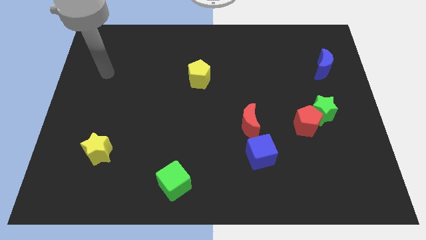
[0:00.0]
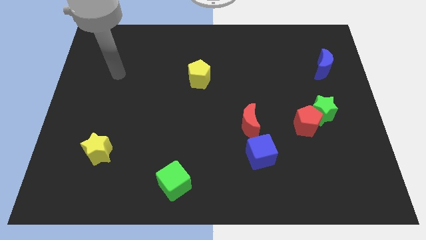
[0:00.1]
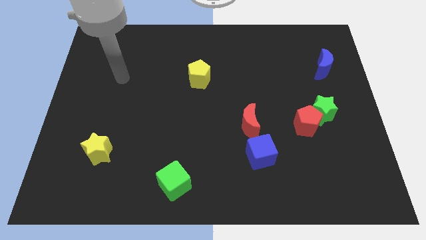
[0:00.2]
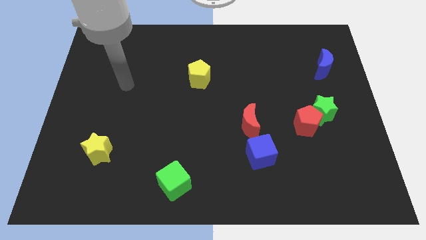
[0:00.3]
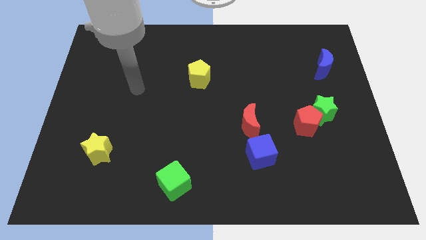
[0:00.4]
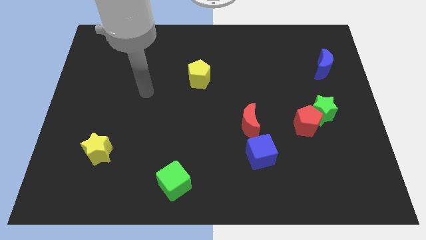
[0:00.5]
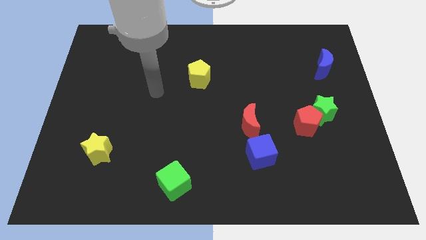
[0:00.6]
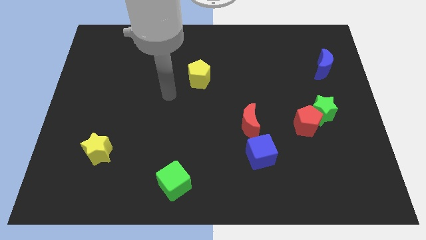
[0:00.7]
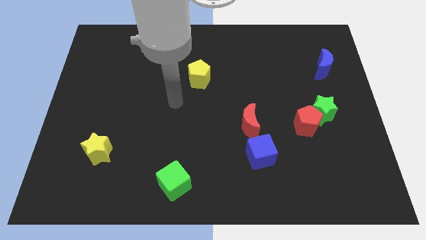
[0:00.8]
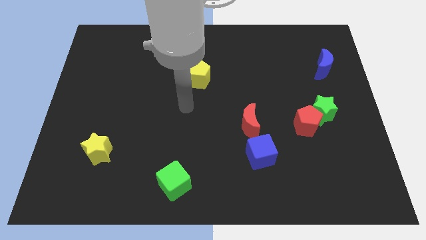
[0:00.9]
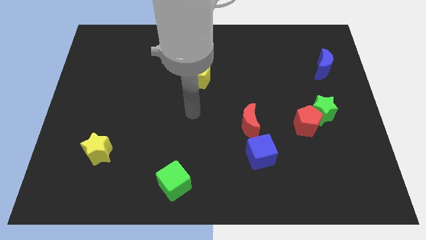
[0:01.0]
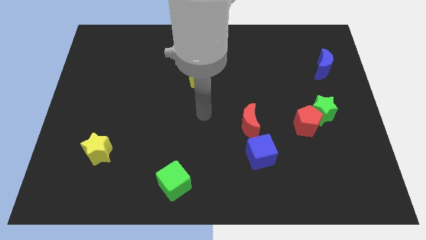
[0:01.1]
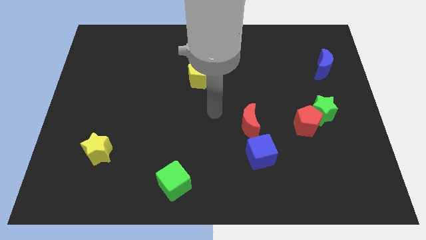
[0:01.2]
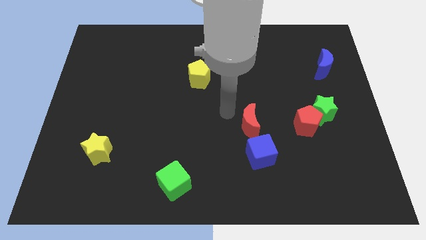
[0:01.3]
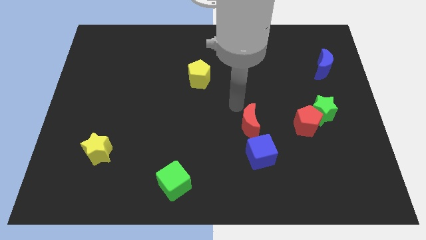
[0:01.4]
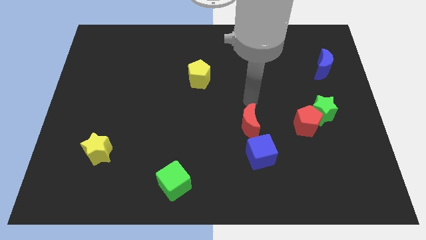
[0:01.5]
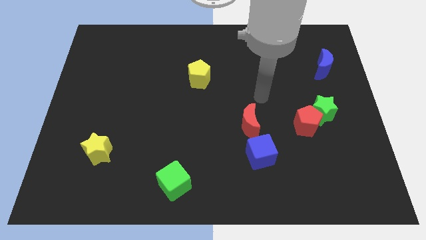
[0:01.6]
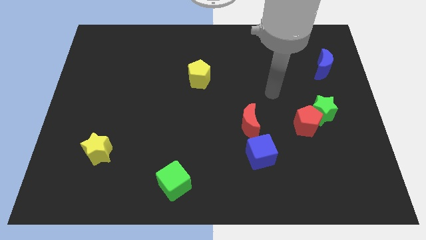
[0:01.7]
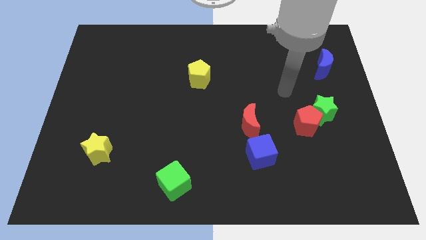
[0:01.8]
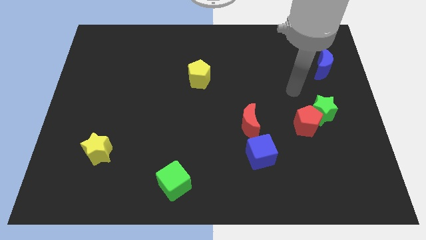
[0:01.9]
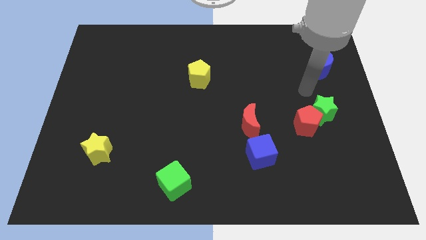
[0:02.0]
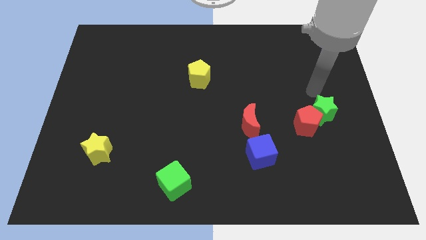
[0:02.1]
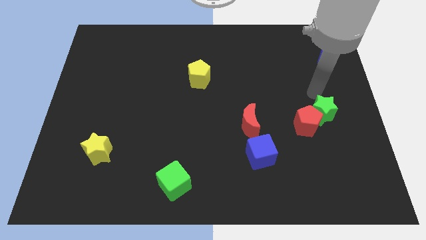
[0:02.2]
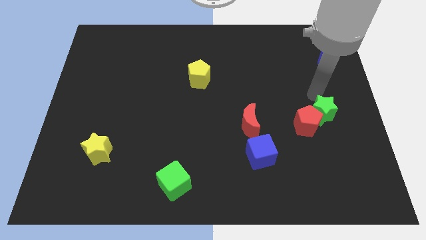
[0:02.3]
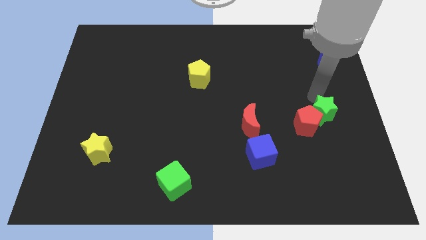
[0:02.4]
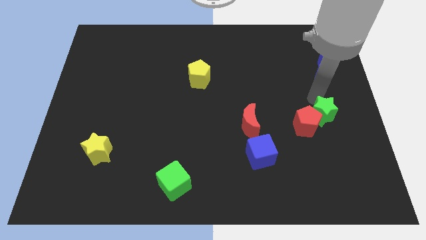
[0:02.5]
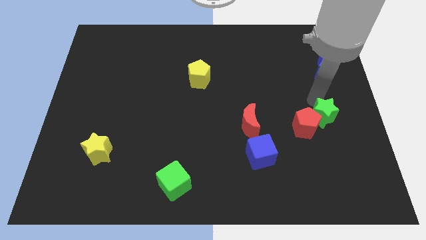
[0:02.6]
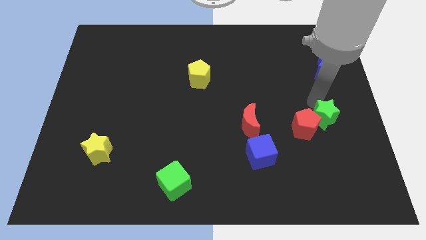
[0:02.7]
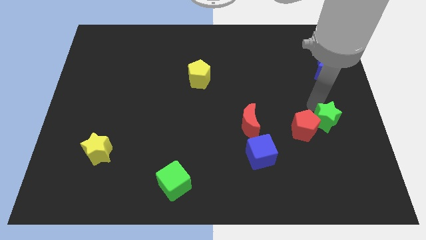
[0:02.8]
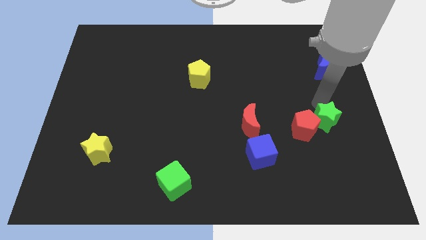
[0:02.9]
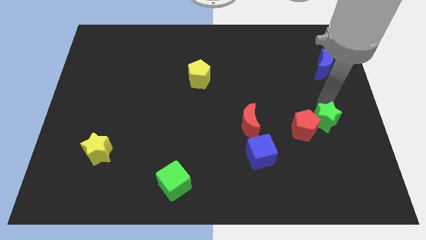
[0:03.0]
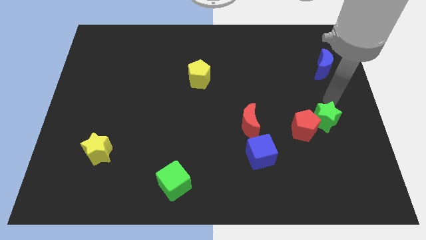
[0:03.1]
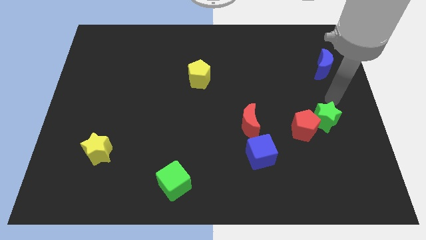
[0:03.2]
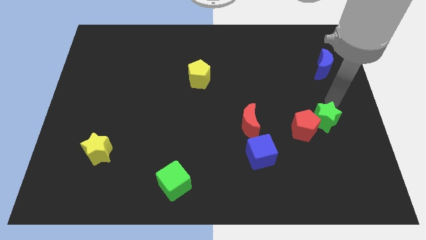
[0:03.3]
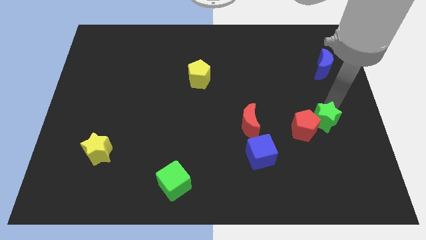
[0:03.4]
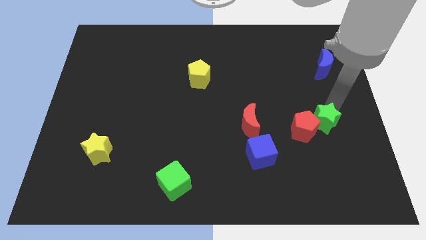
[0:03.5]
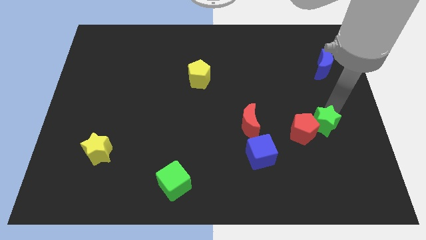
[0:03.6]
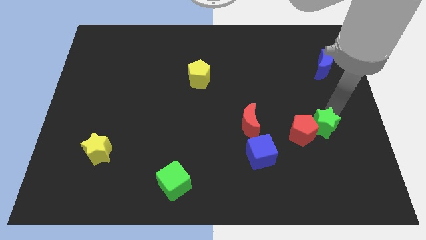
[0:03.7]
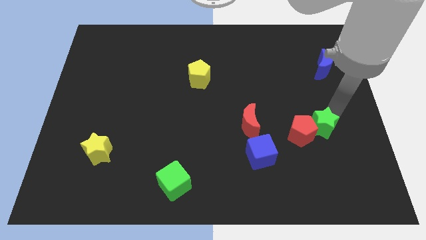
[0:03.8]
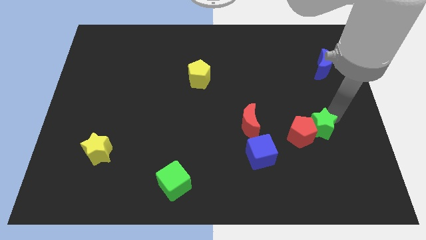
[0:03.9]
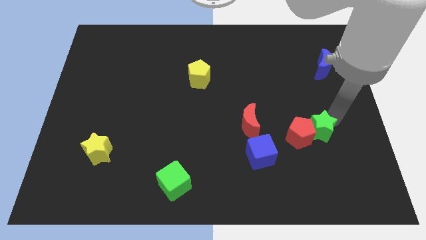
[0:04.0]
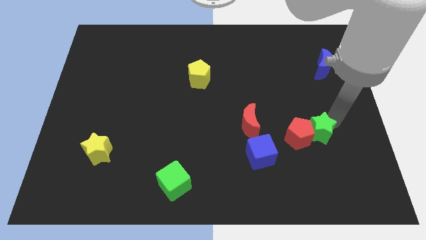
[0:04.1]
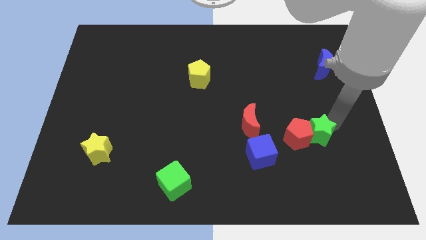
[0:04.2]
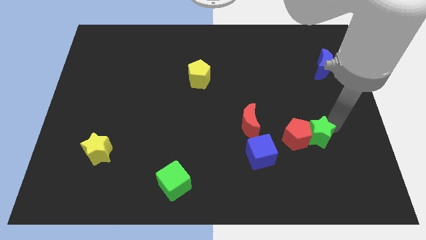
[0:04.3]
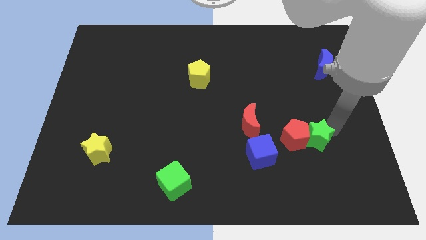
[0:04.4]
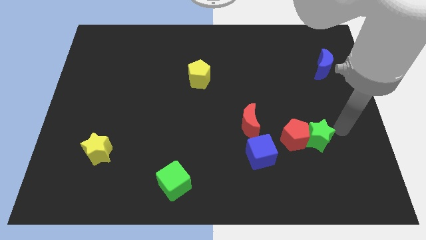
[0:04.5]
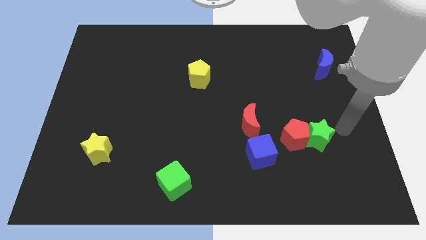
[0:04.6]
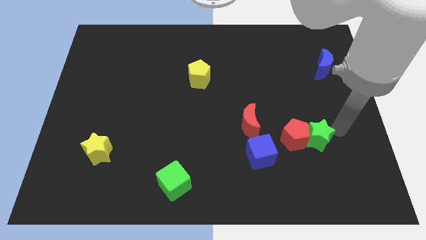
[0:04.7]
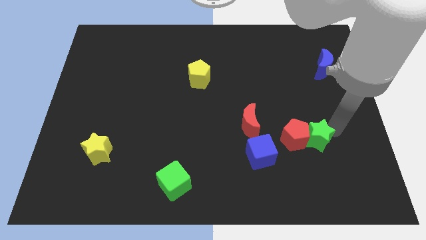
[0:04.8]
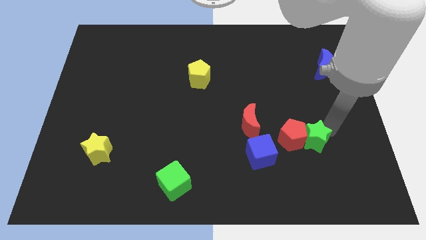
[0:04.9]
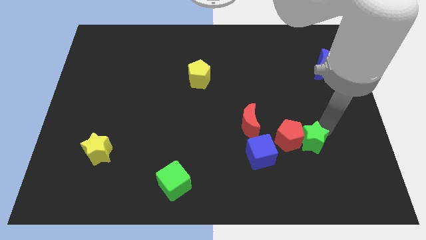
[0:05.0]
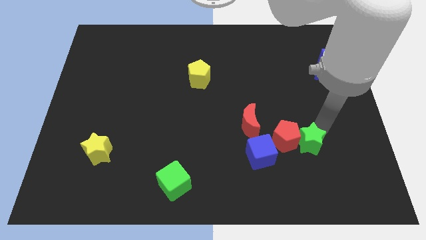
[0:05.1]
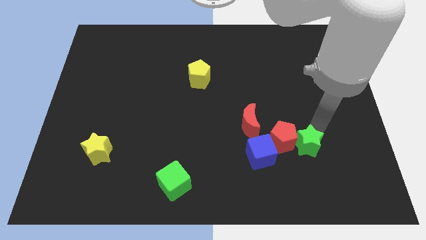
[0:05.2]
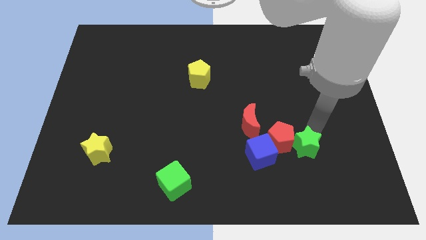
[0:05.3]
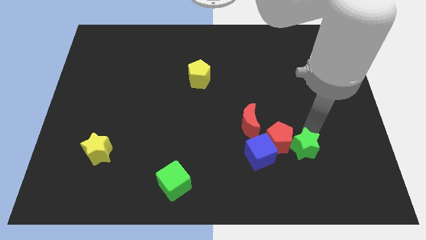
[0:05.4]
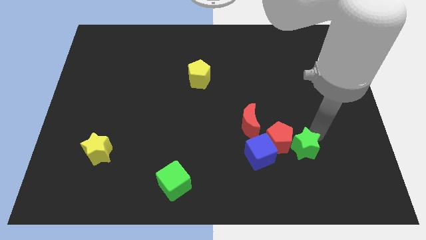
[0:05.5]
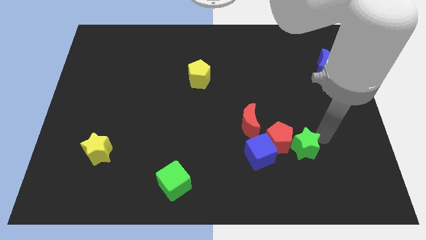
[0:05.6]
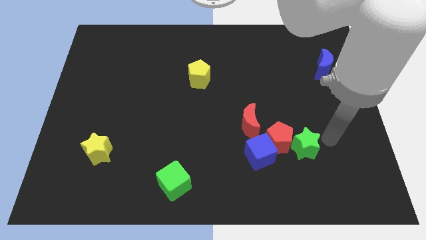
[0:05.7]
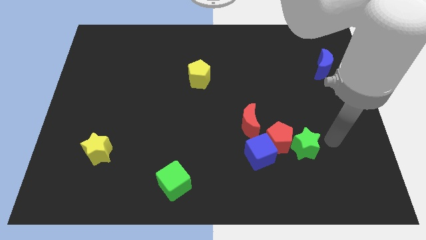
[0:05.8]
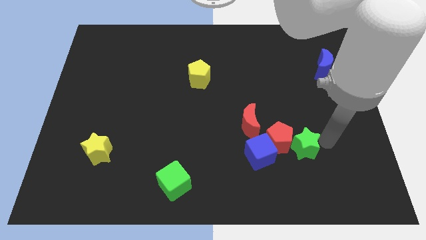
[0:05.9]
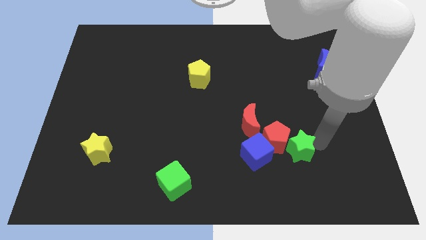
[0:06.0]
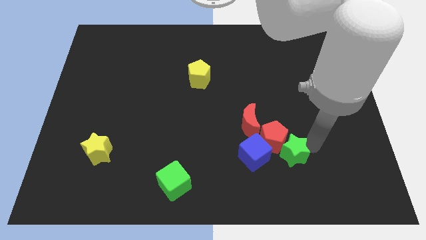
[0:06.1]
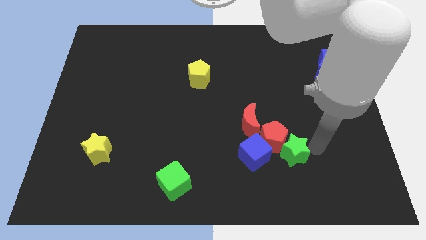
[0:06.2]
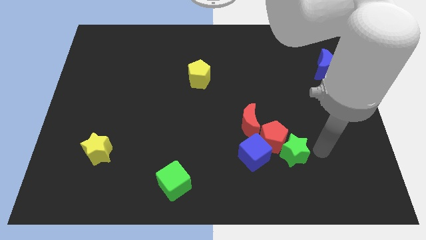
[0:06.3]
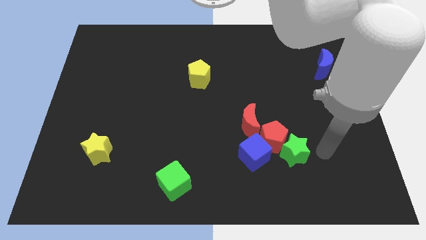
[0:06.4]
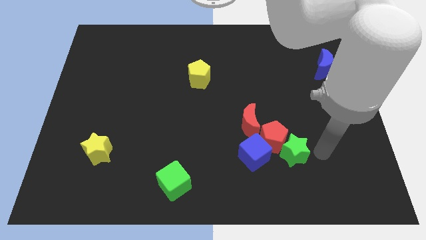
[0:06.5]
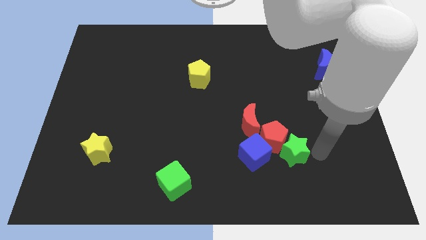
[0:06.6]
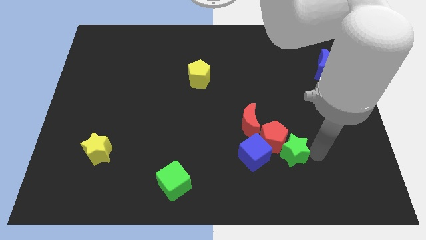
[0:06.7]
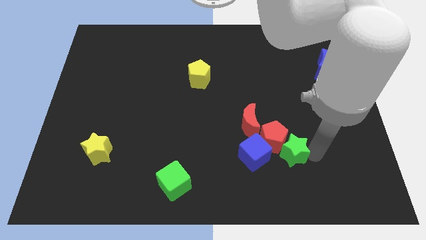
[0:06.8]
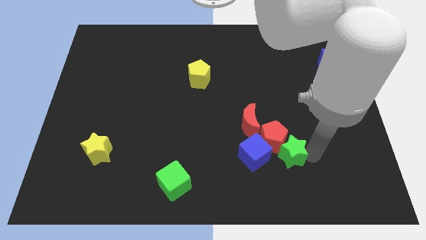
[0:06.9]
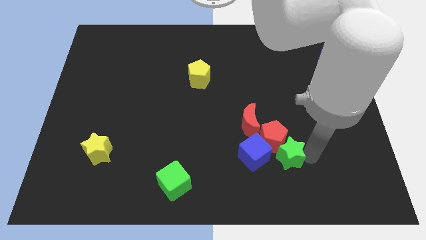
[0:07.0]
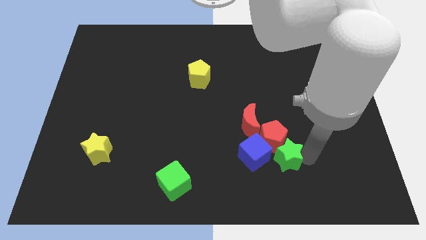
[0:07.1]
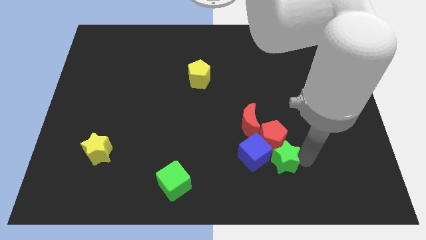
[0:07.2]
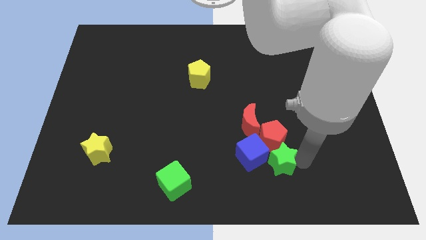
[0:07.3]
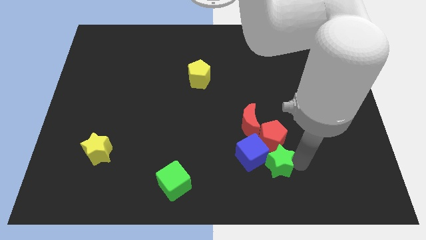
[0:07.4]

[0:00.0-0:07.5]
slide the green star to the blue cube

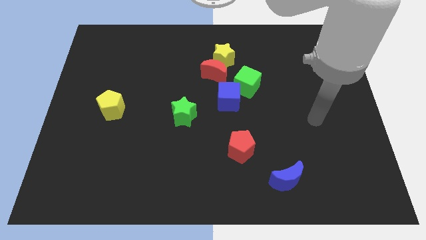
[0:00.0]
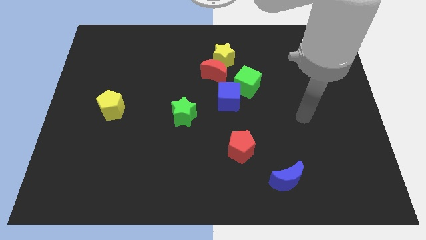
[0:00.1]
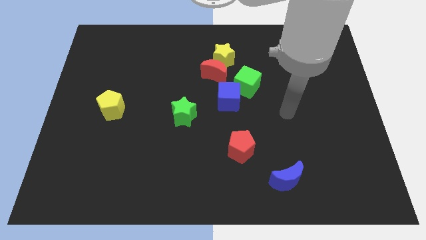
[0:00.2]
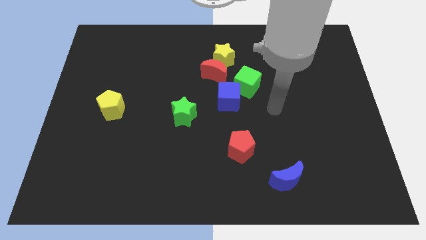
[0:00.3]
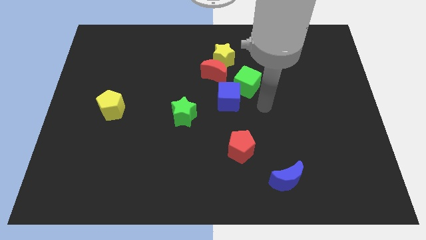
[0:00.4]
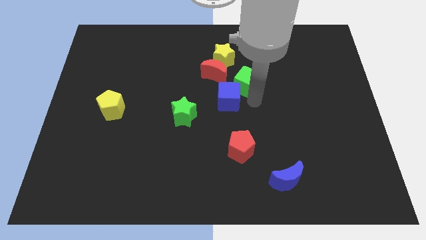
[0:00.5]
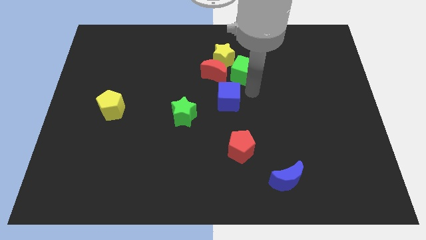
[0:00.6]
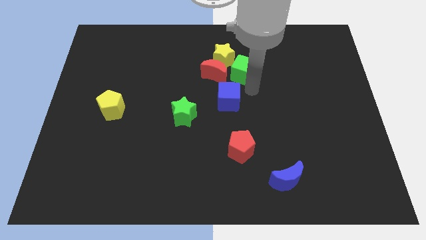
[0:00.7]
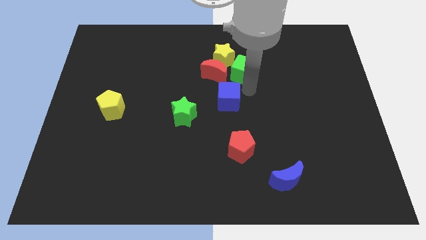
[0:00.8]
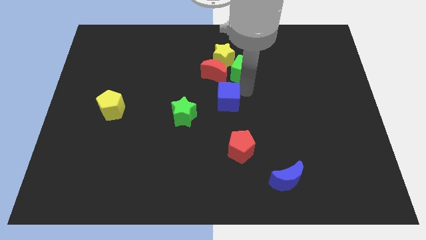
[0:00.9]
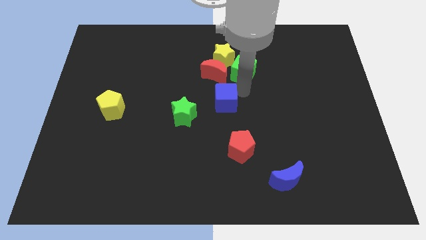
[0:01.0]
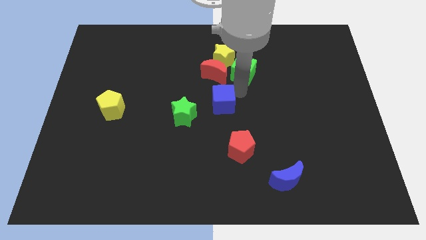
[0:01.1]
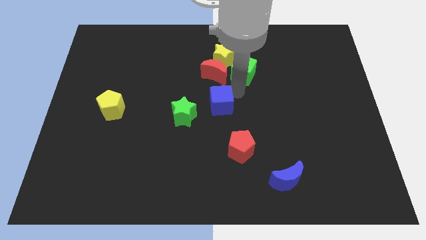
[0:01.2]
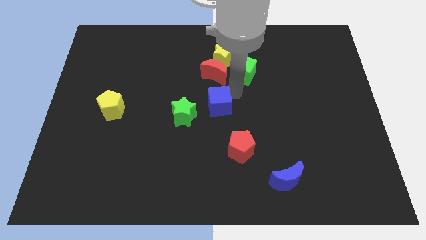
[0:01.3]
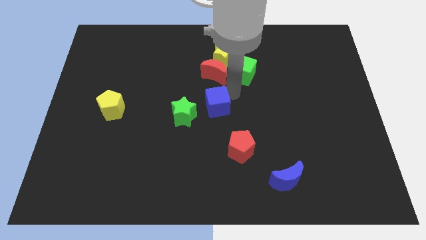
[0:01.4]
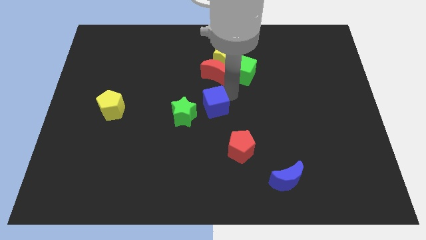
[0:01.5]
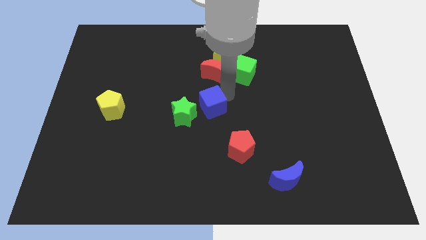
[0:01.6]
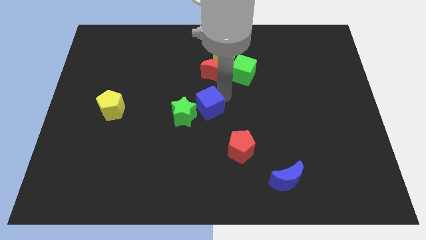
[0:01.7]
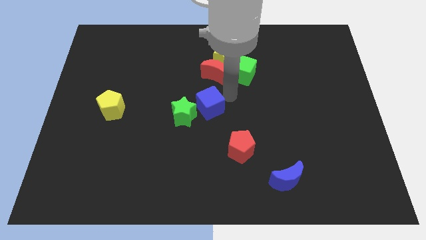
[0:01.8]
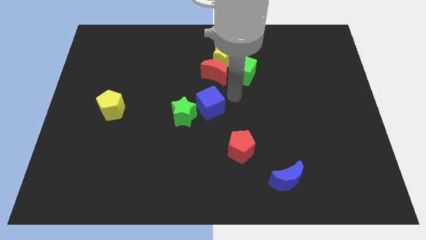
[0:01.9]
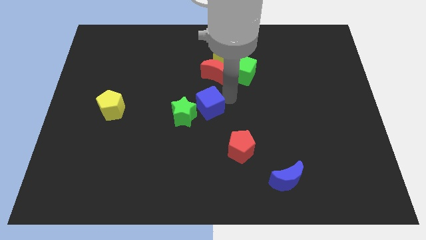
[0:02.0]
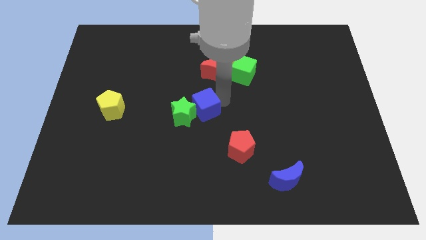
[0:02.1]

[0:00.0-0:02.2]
put the blue cube close to the green star
